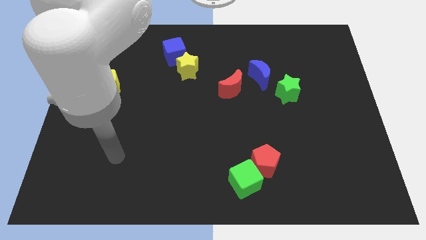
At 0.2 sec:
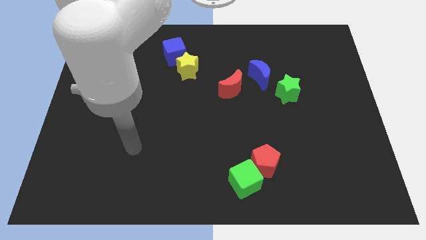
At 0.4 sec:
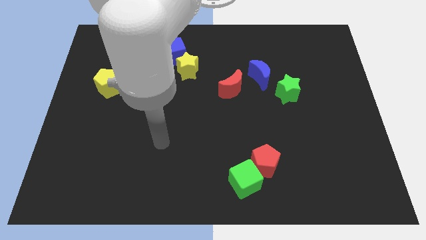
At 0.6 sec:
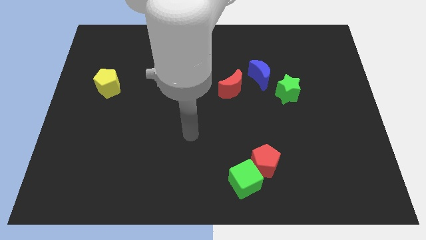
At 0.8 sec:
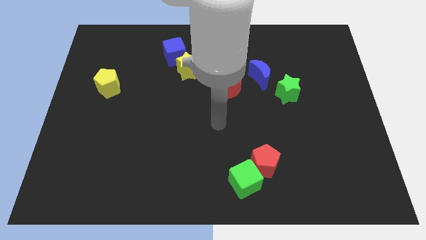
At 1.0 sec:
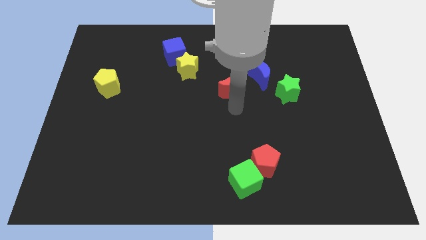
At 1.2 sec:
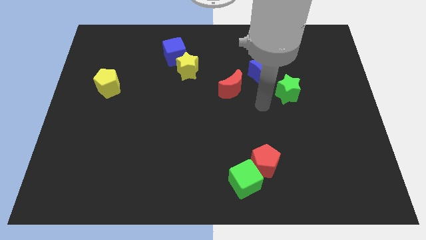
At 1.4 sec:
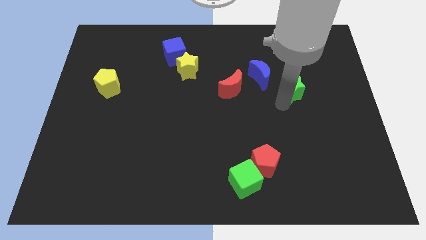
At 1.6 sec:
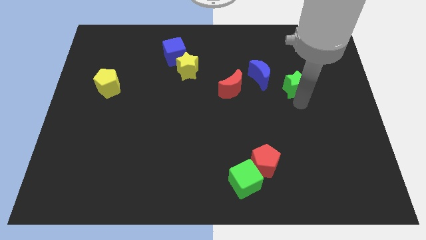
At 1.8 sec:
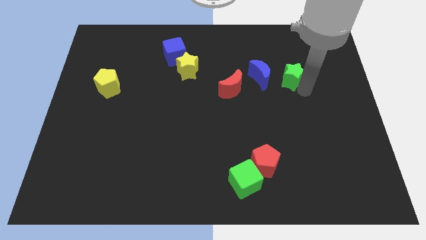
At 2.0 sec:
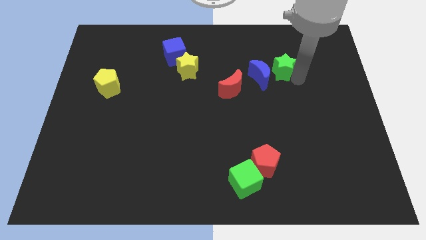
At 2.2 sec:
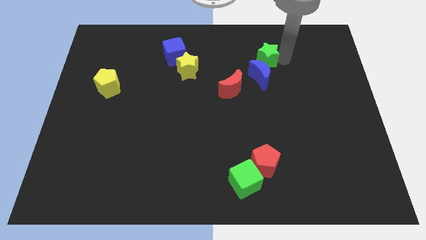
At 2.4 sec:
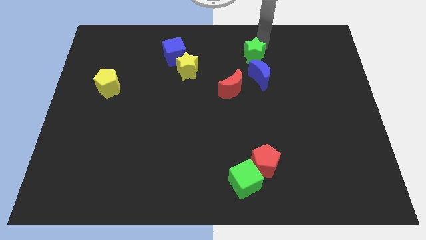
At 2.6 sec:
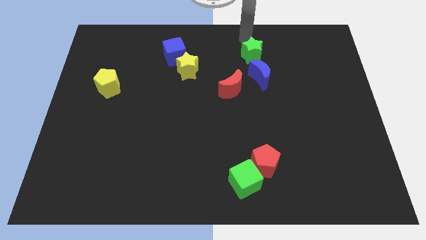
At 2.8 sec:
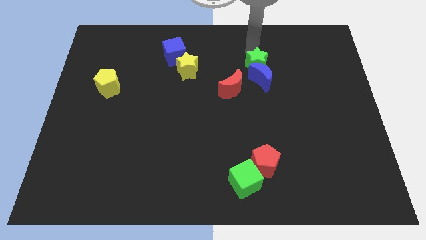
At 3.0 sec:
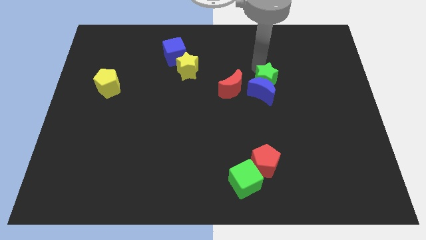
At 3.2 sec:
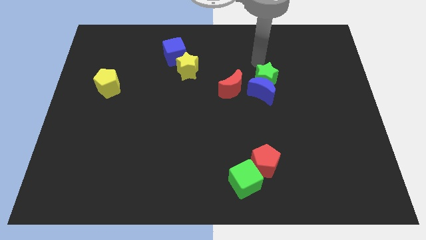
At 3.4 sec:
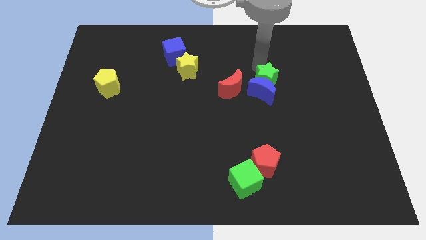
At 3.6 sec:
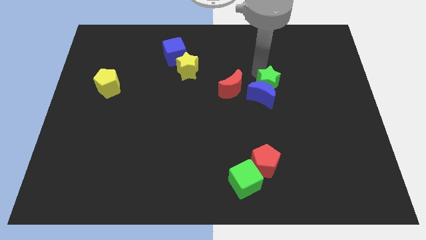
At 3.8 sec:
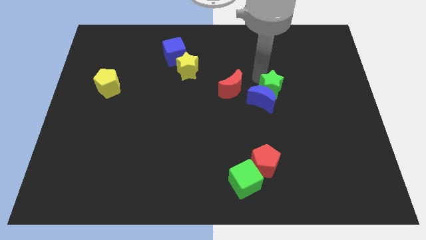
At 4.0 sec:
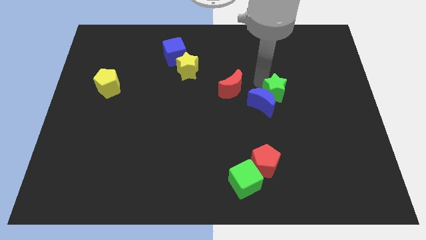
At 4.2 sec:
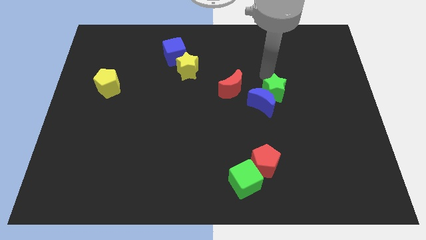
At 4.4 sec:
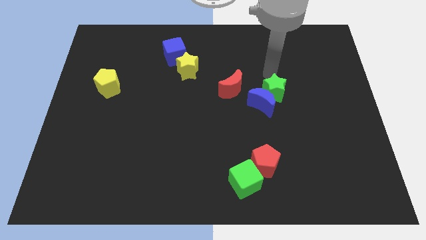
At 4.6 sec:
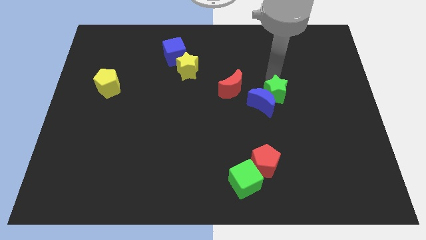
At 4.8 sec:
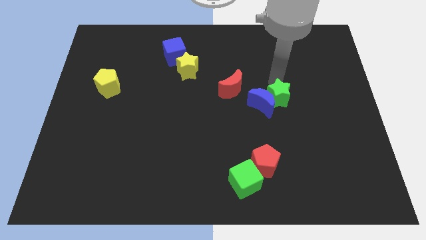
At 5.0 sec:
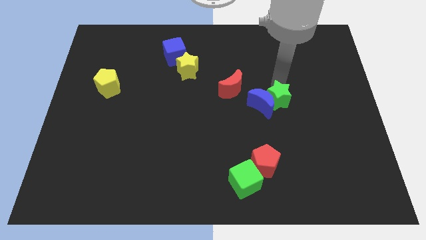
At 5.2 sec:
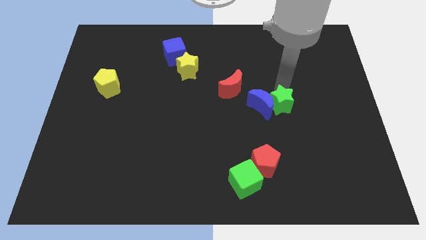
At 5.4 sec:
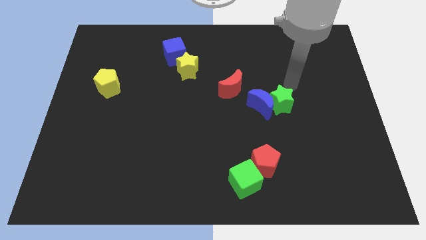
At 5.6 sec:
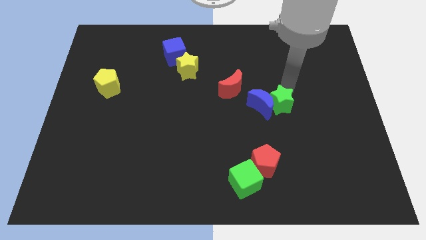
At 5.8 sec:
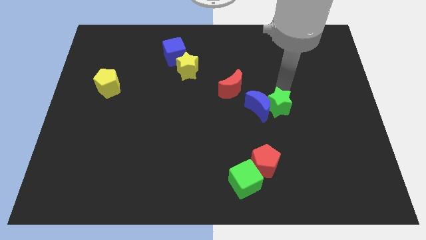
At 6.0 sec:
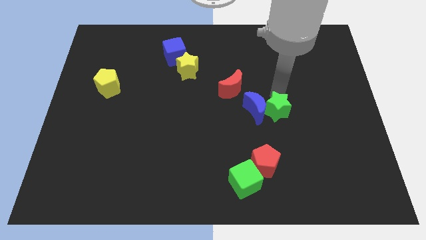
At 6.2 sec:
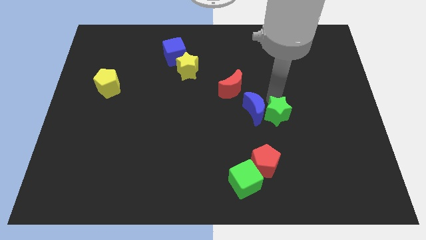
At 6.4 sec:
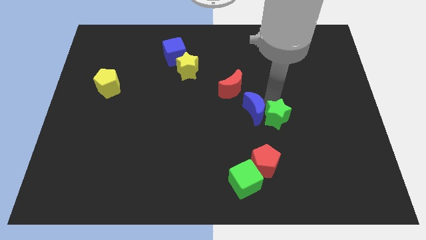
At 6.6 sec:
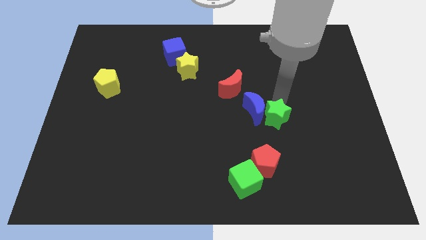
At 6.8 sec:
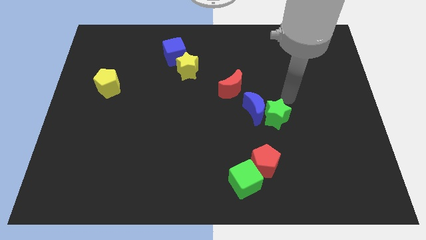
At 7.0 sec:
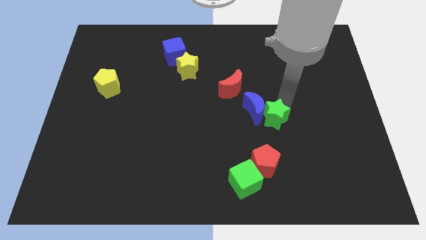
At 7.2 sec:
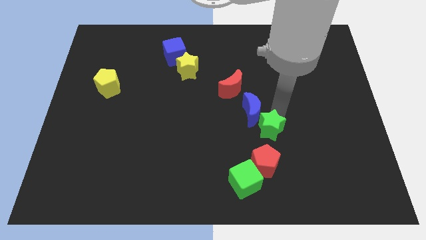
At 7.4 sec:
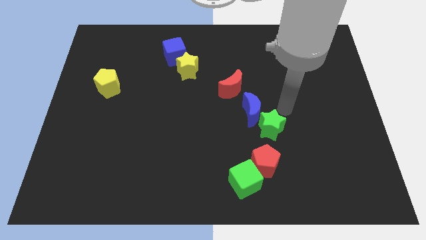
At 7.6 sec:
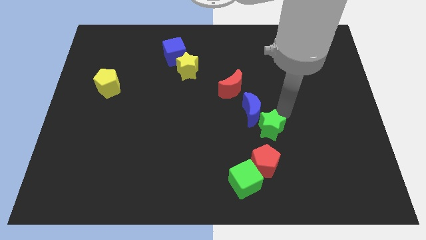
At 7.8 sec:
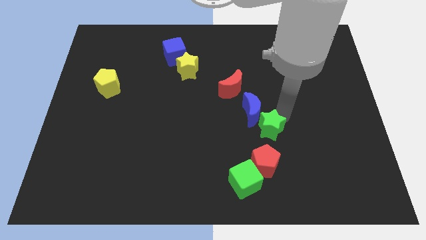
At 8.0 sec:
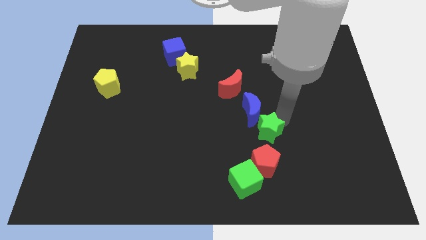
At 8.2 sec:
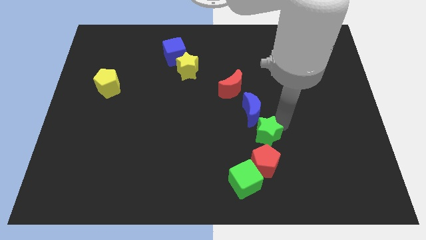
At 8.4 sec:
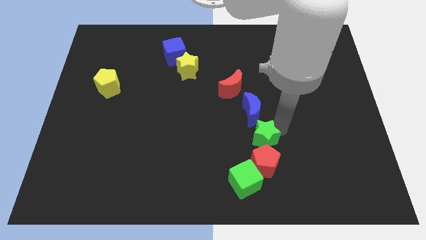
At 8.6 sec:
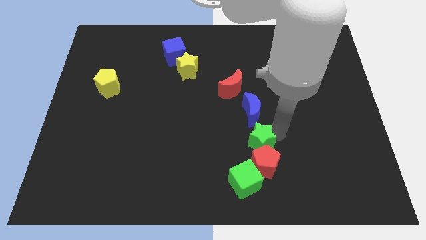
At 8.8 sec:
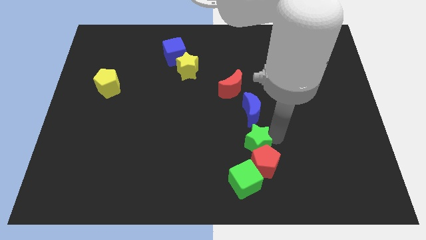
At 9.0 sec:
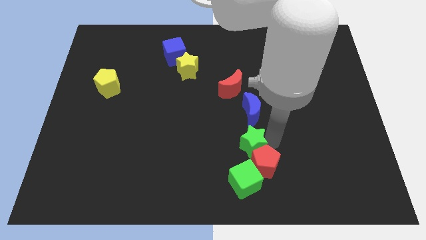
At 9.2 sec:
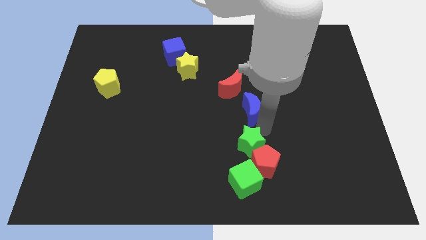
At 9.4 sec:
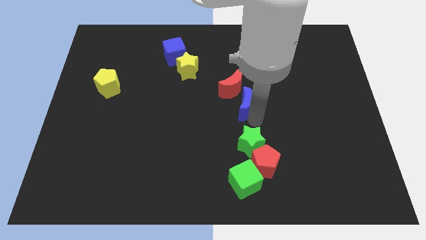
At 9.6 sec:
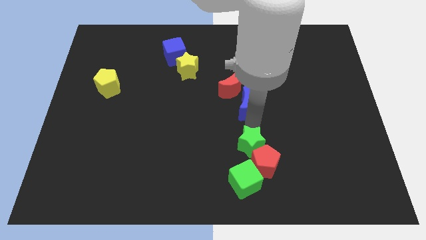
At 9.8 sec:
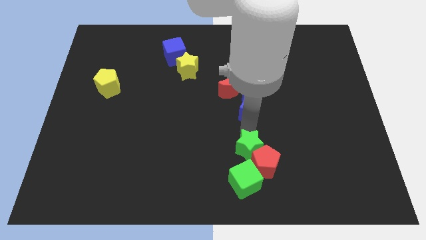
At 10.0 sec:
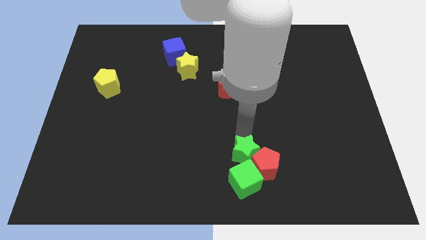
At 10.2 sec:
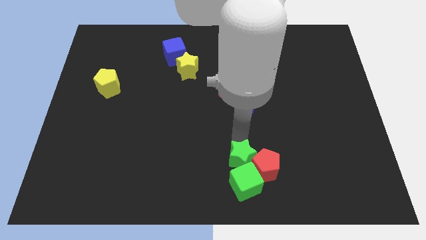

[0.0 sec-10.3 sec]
move the green star to the green cube

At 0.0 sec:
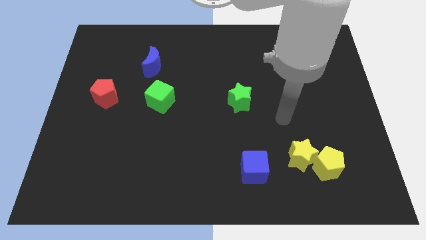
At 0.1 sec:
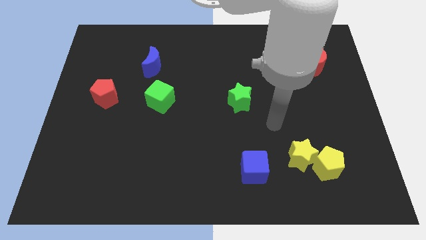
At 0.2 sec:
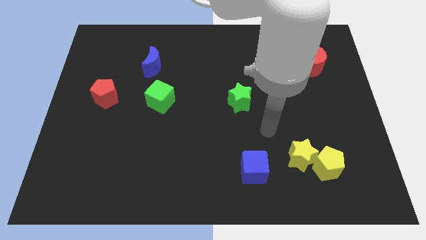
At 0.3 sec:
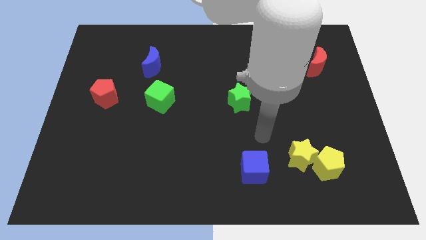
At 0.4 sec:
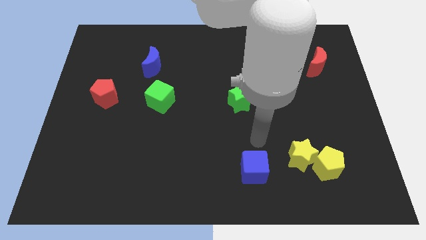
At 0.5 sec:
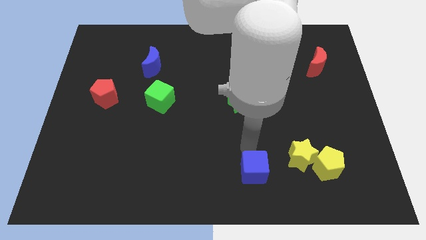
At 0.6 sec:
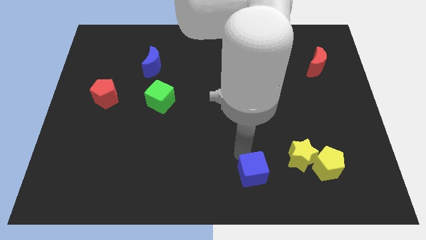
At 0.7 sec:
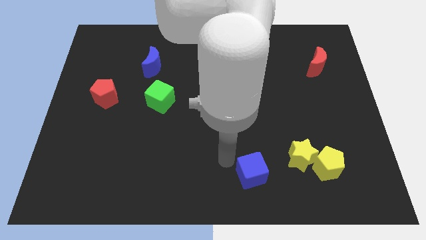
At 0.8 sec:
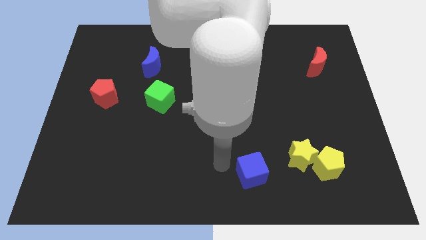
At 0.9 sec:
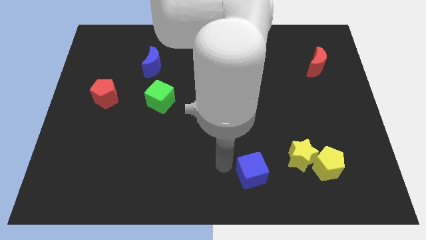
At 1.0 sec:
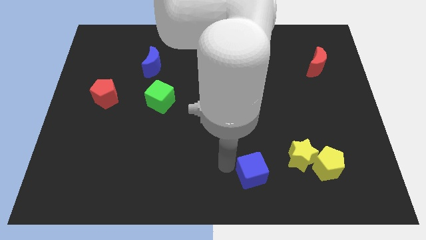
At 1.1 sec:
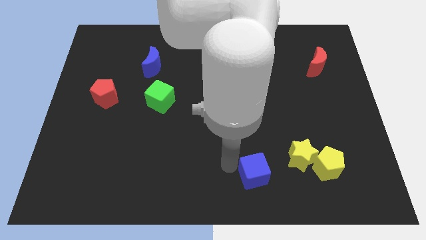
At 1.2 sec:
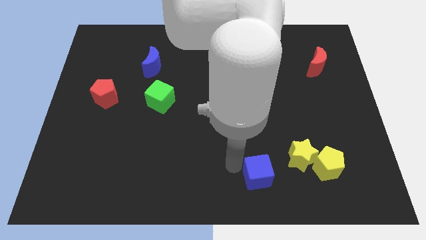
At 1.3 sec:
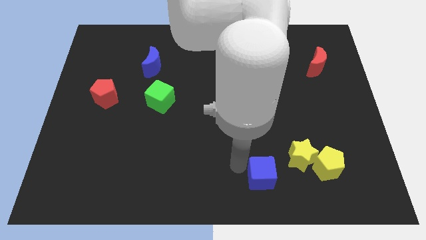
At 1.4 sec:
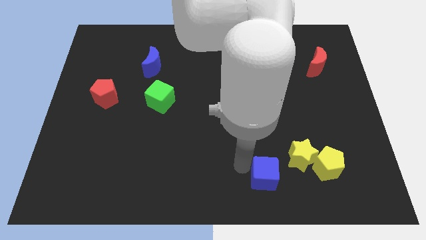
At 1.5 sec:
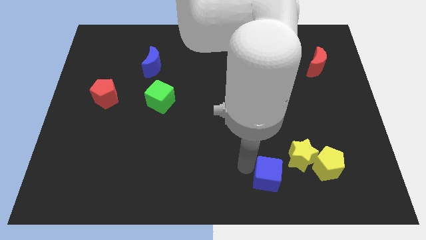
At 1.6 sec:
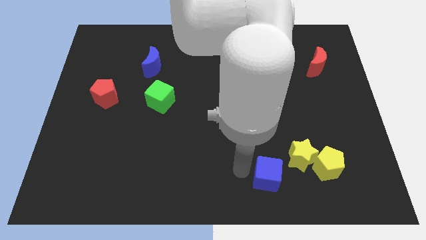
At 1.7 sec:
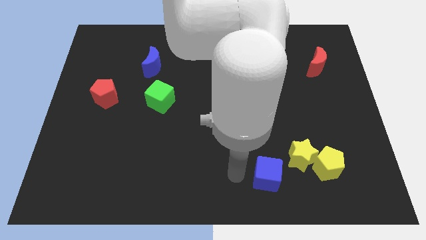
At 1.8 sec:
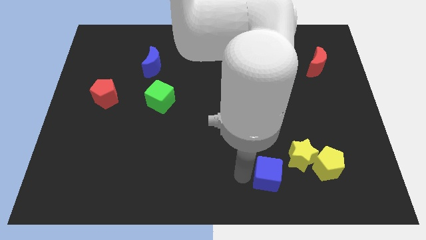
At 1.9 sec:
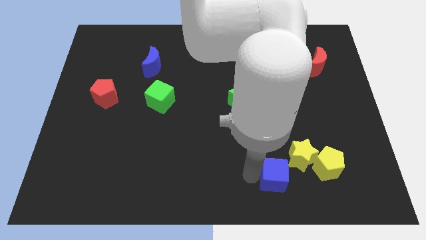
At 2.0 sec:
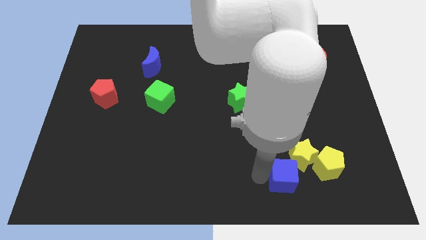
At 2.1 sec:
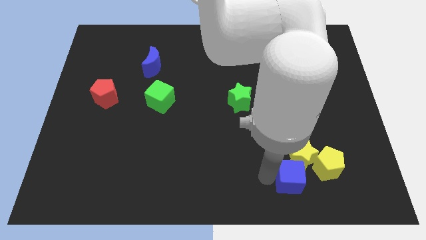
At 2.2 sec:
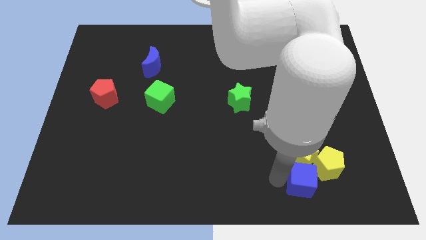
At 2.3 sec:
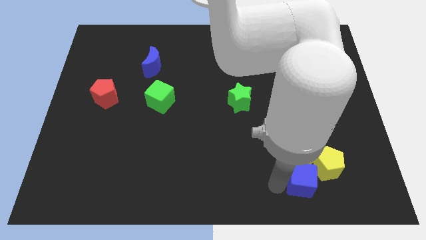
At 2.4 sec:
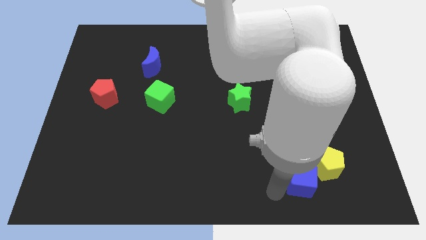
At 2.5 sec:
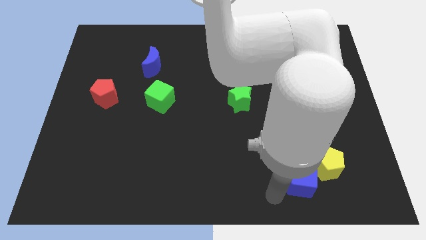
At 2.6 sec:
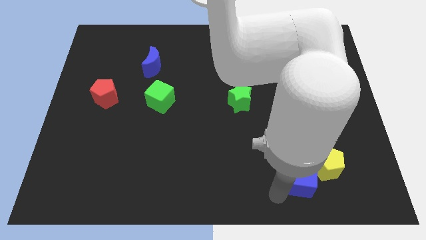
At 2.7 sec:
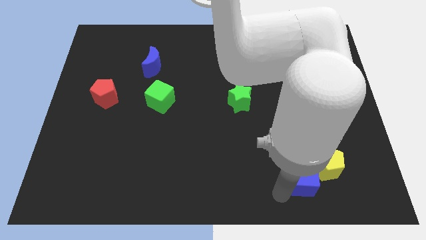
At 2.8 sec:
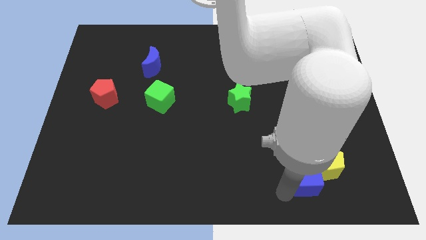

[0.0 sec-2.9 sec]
slide the blue cube close to the yellow pentagon
